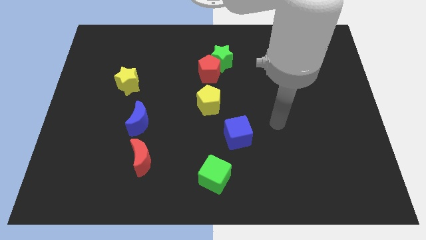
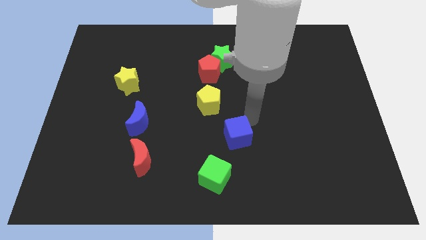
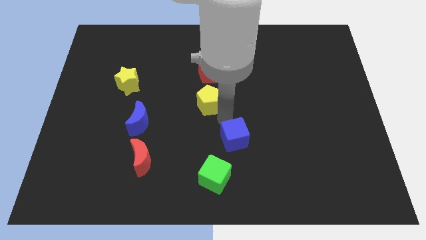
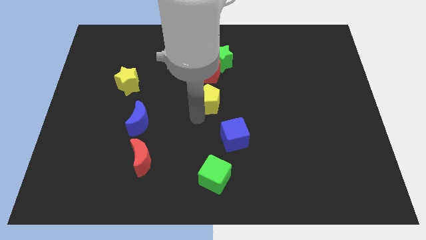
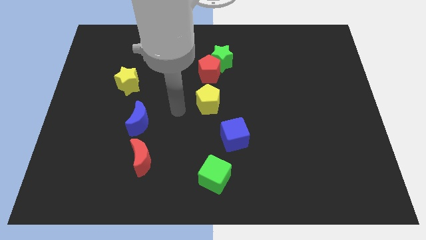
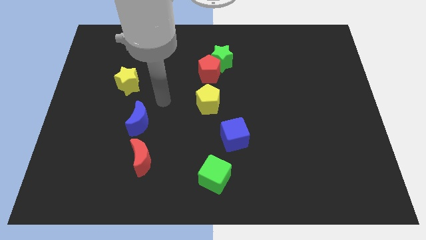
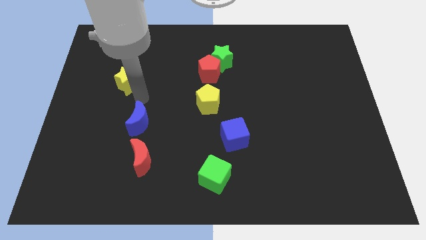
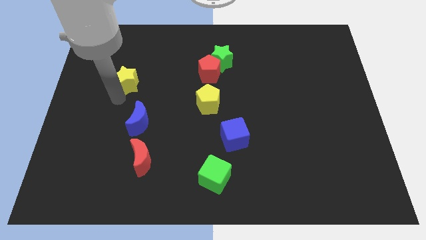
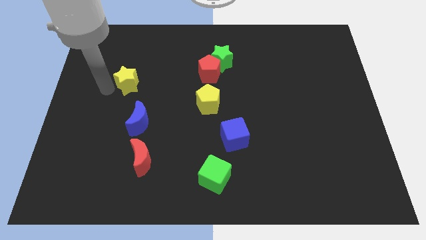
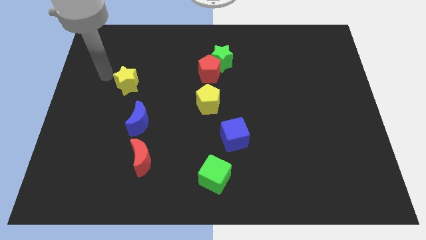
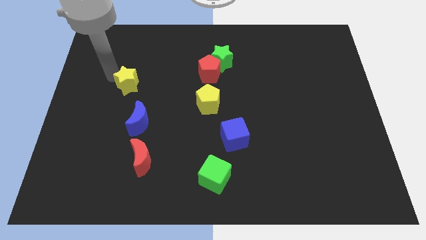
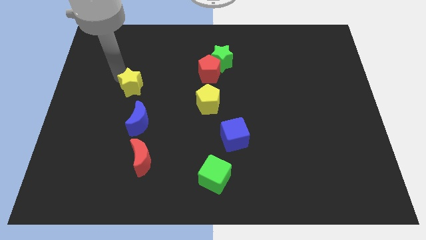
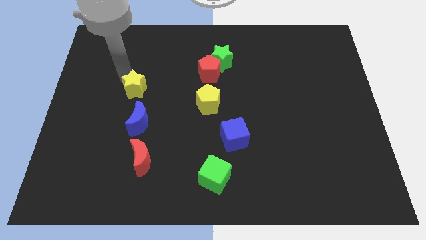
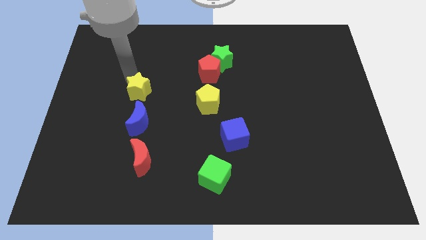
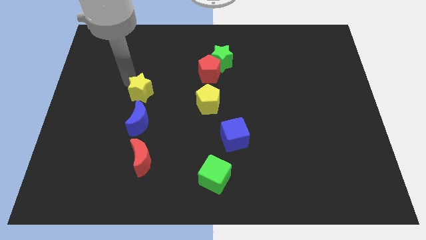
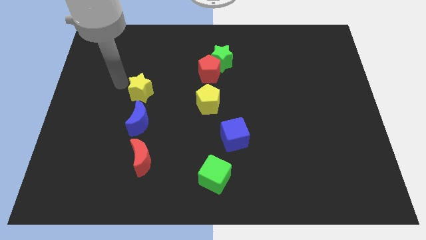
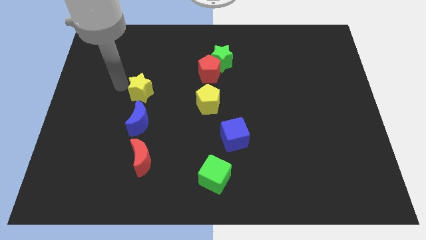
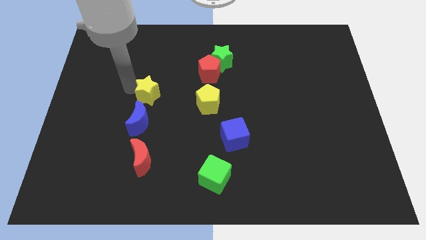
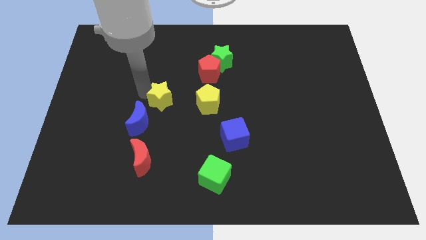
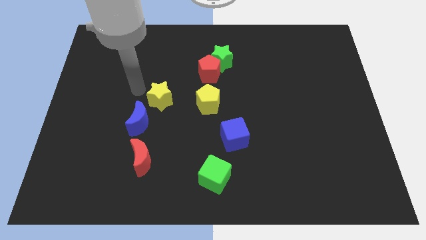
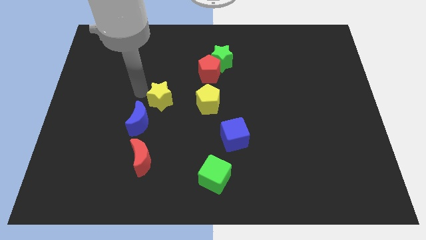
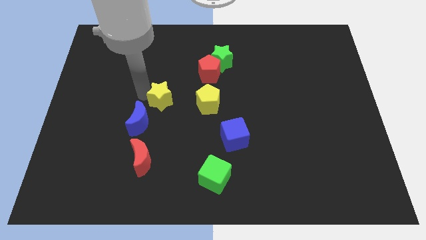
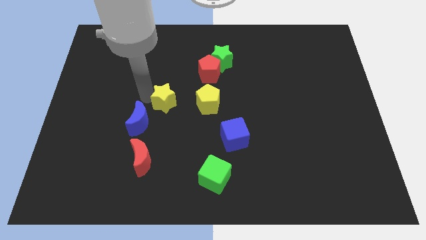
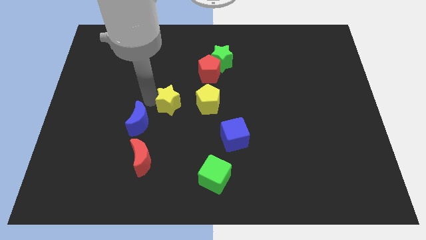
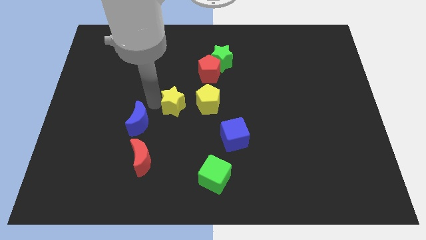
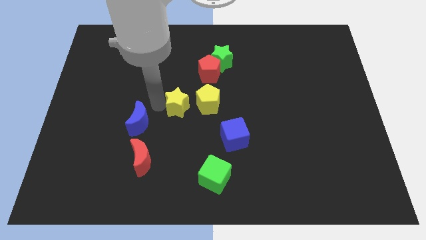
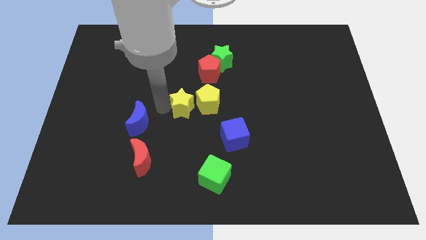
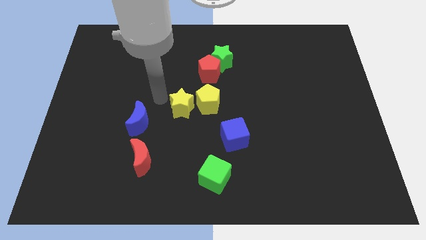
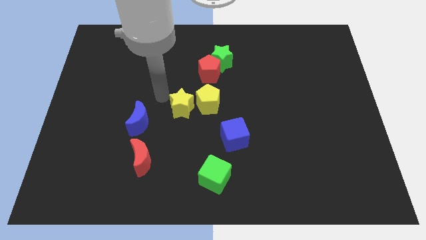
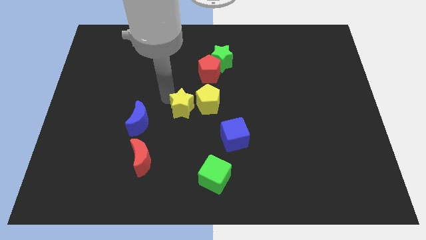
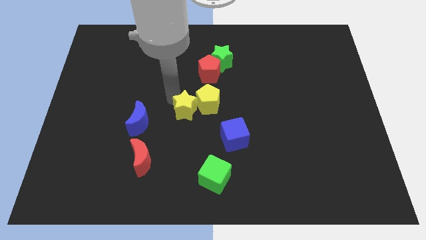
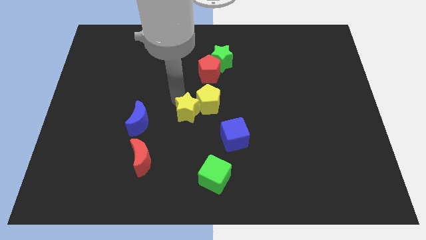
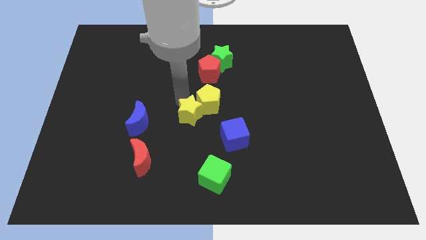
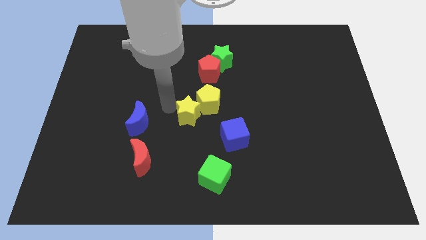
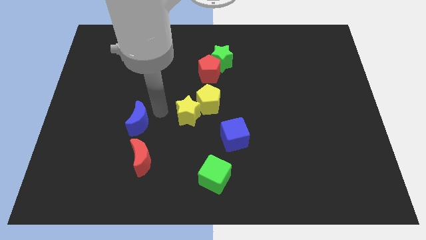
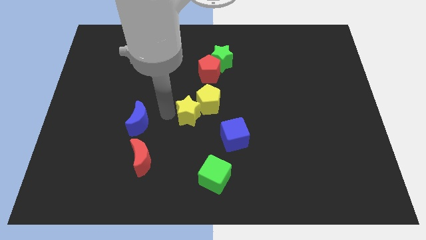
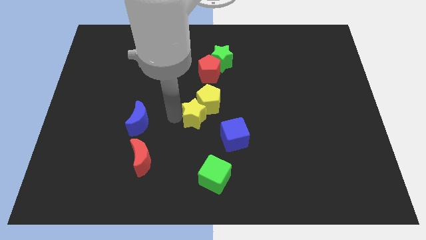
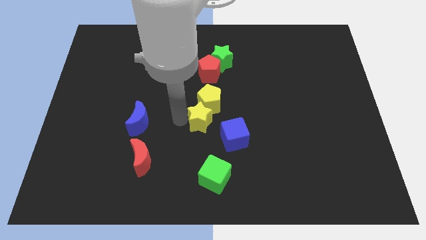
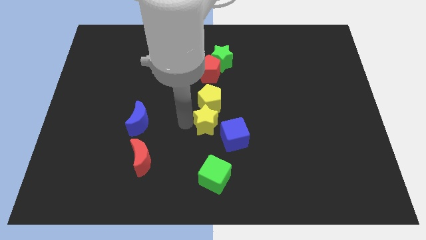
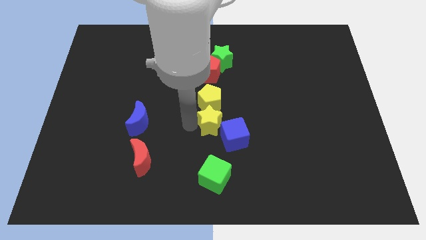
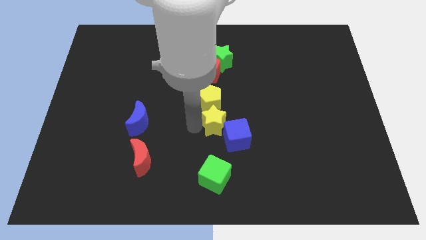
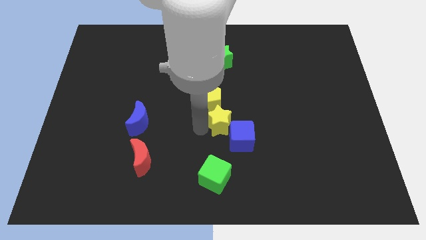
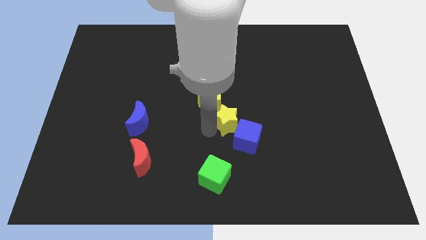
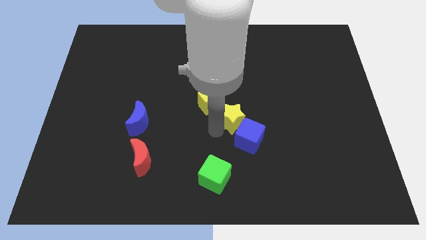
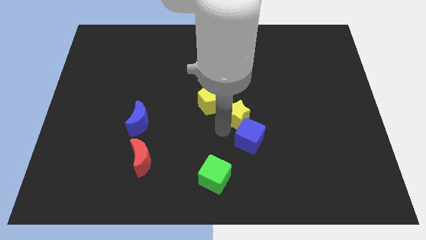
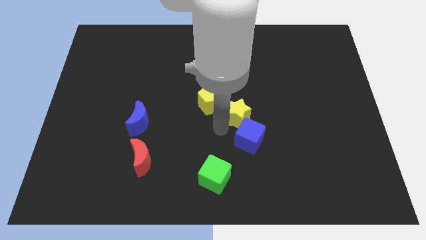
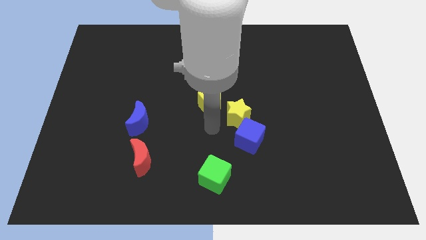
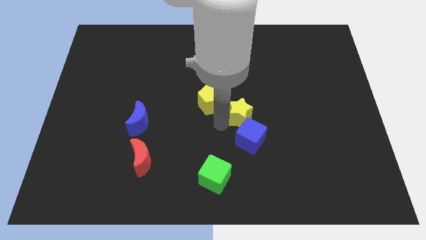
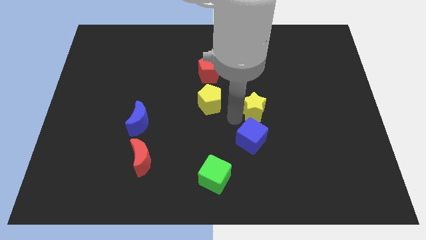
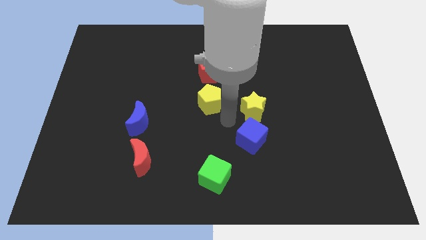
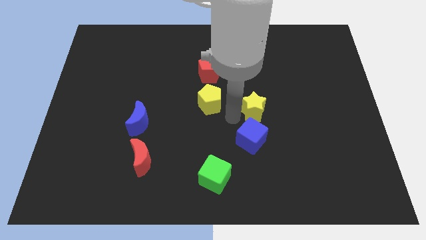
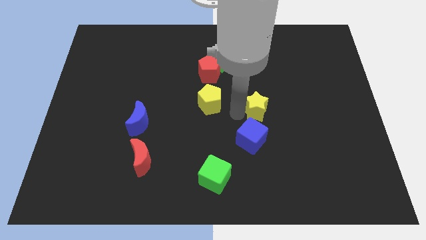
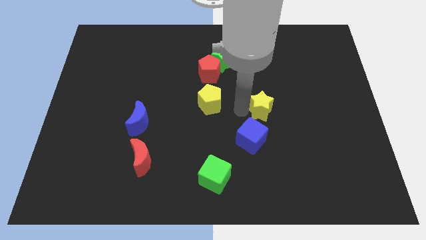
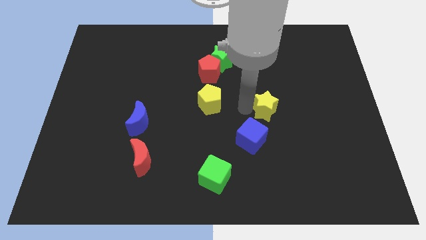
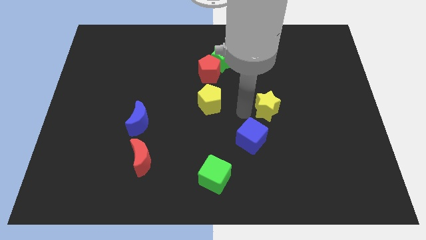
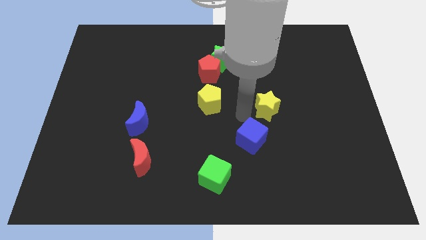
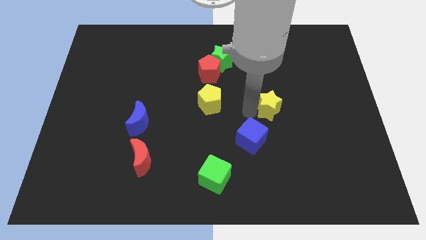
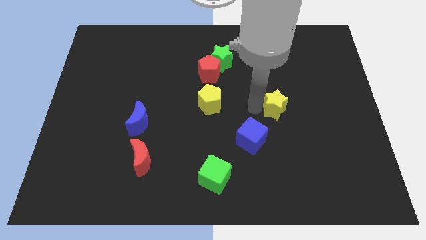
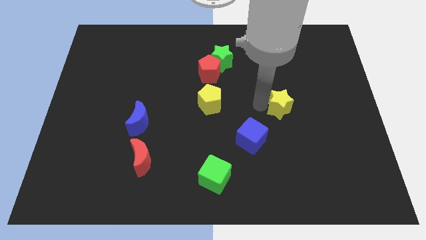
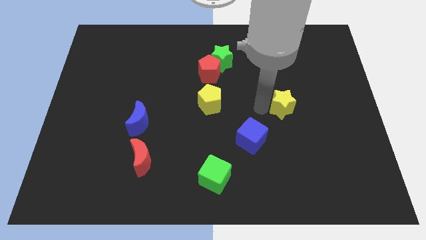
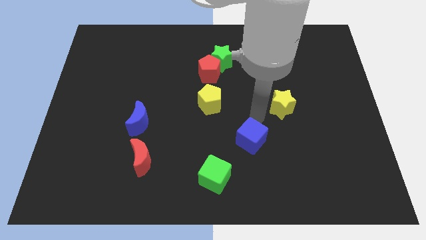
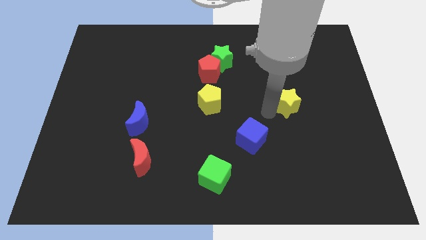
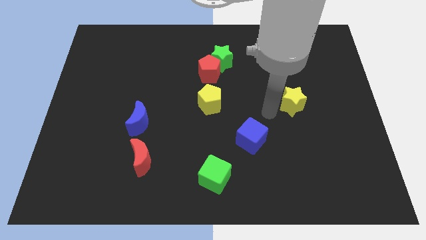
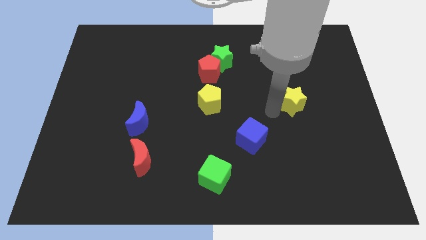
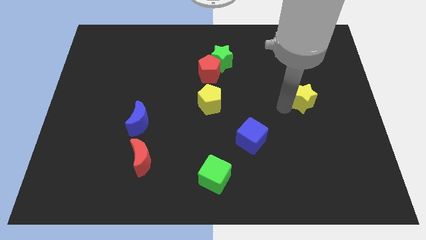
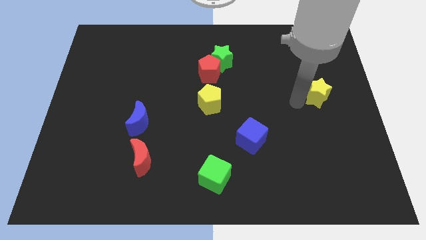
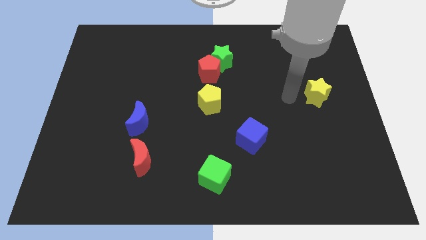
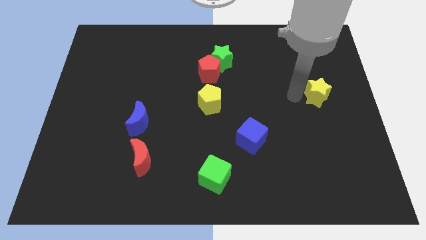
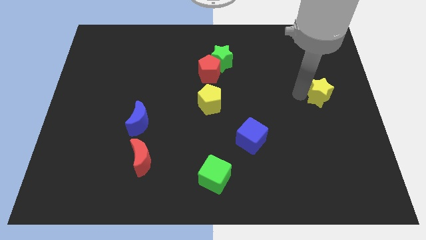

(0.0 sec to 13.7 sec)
slide the yellow star to the right side of the board
